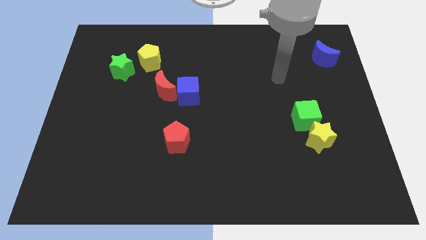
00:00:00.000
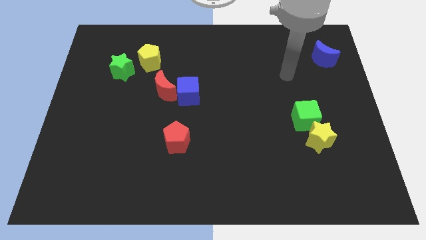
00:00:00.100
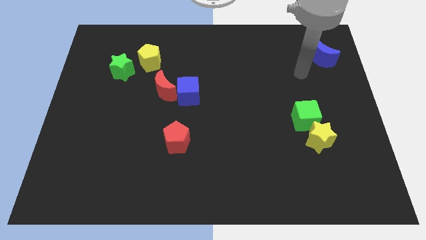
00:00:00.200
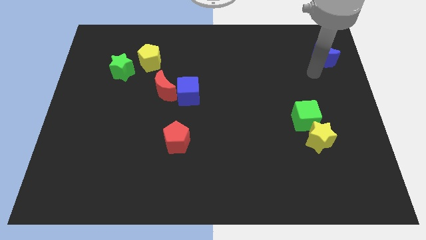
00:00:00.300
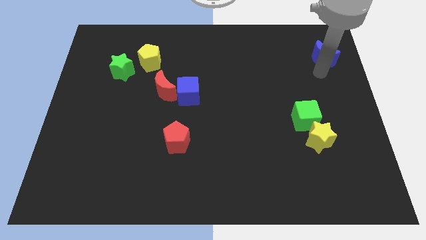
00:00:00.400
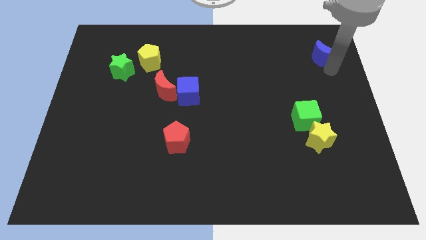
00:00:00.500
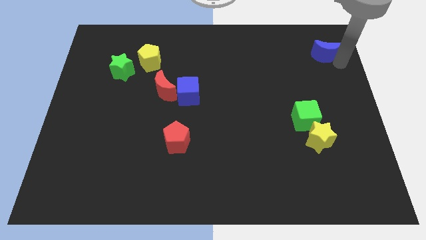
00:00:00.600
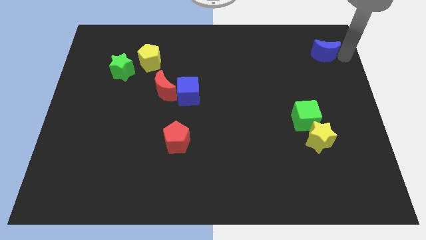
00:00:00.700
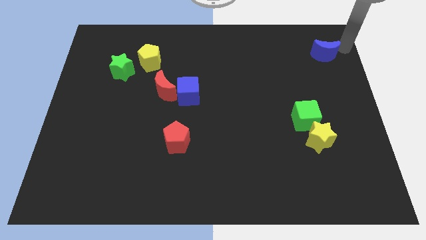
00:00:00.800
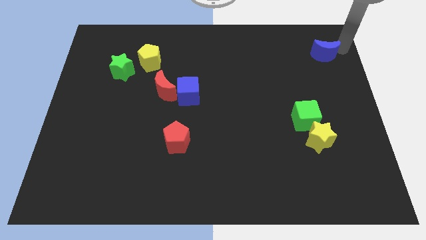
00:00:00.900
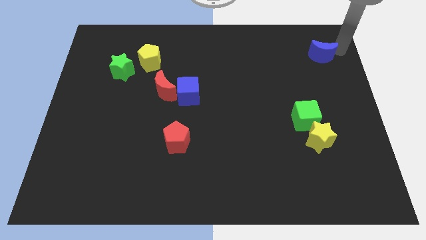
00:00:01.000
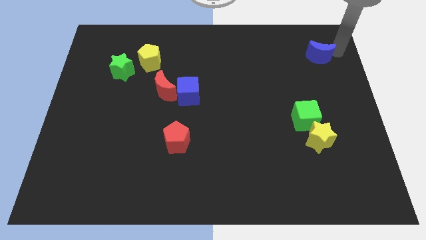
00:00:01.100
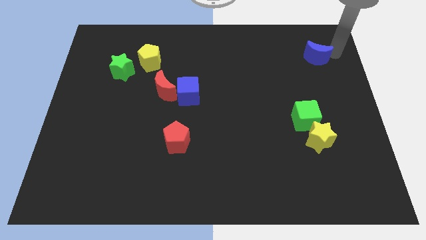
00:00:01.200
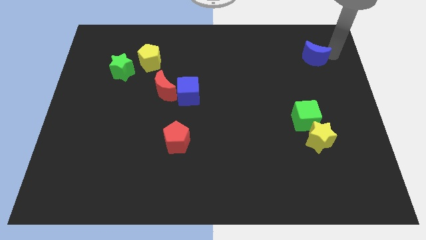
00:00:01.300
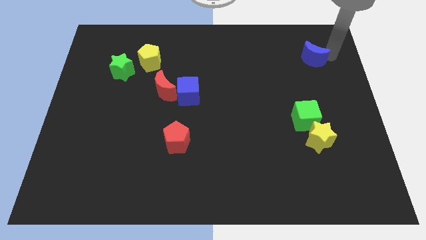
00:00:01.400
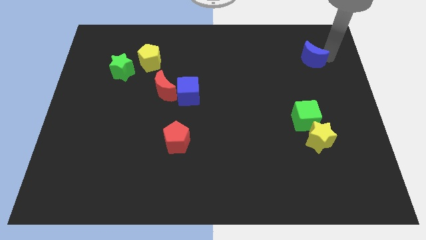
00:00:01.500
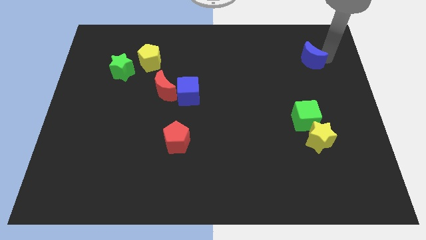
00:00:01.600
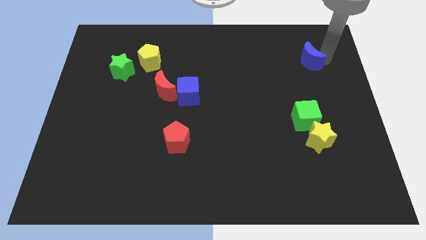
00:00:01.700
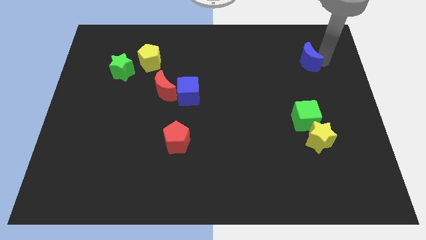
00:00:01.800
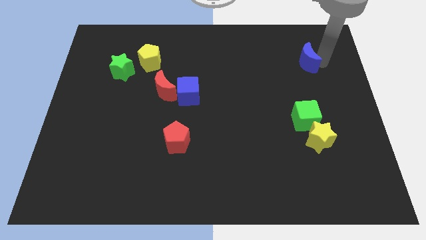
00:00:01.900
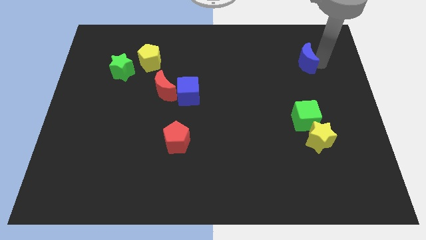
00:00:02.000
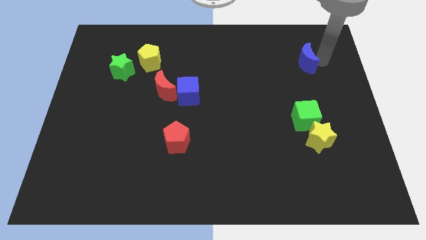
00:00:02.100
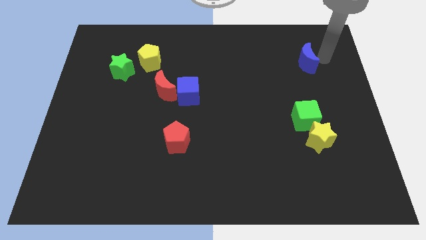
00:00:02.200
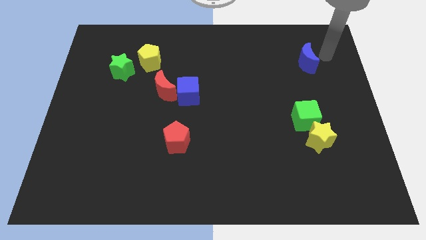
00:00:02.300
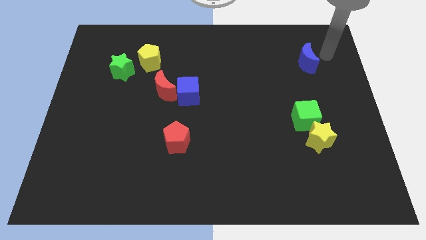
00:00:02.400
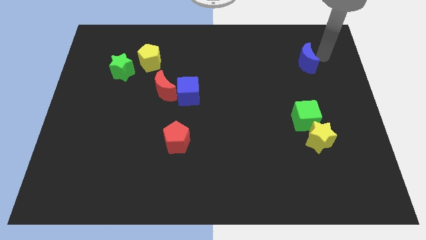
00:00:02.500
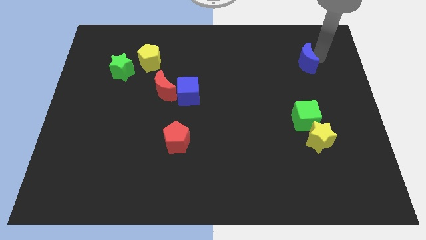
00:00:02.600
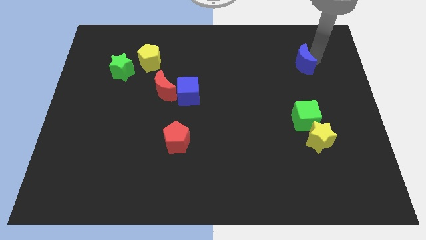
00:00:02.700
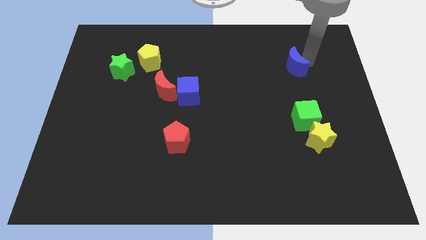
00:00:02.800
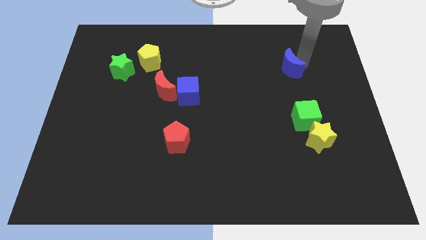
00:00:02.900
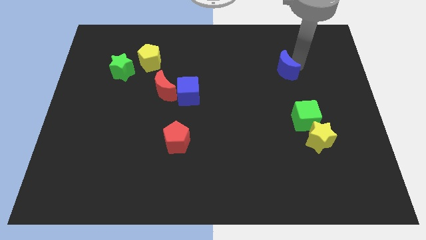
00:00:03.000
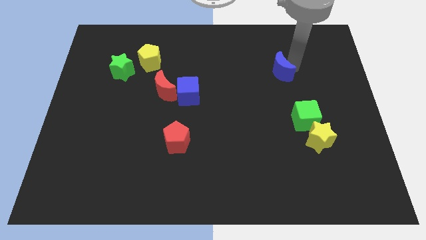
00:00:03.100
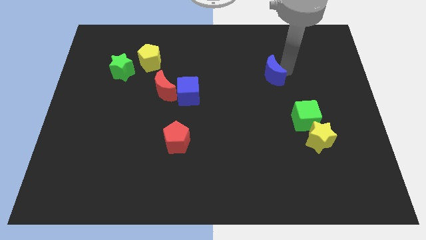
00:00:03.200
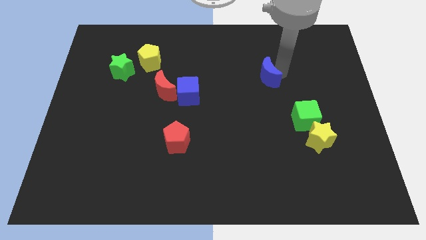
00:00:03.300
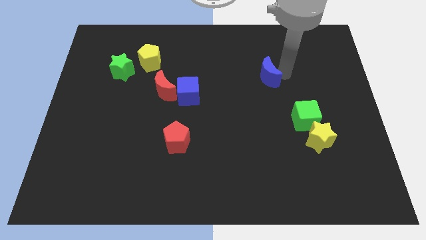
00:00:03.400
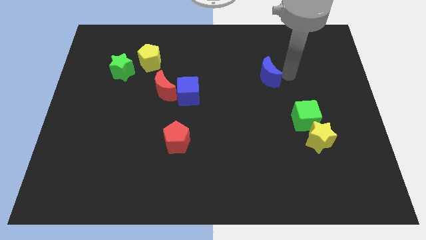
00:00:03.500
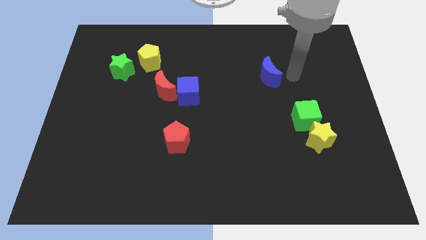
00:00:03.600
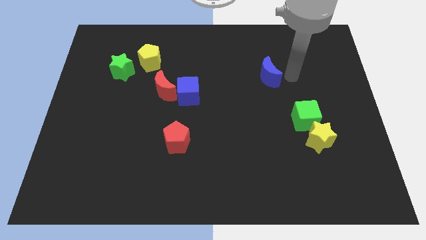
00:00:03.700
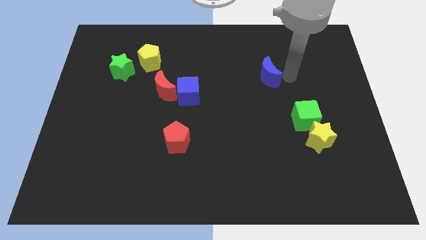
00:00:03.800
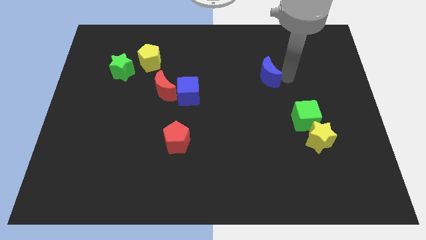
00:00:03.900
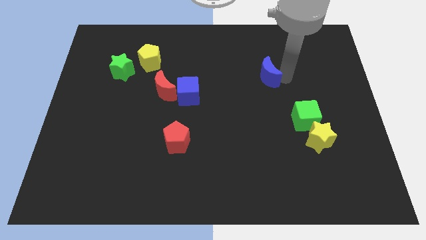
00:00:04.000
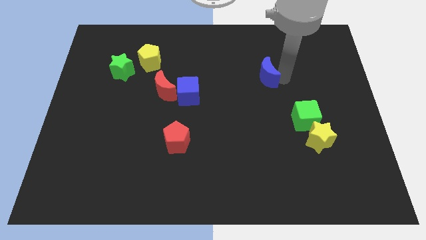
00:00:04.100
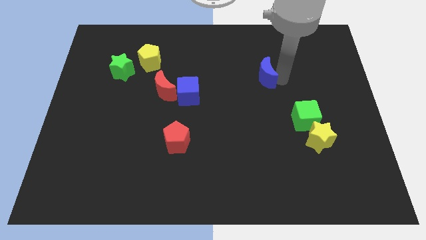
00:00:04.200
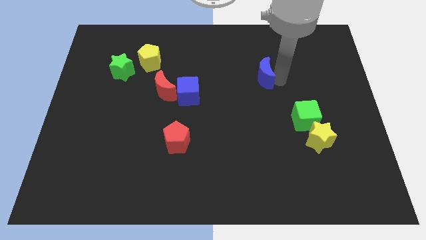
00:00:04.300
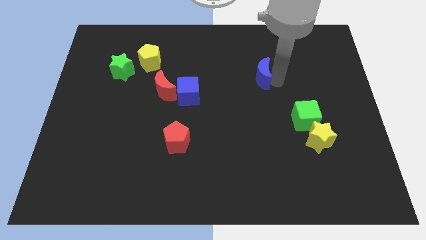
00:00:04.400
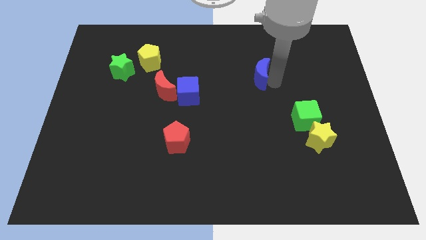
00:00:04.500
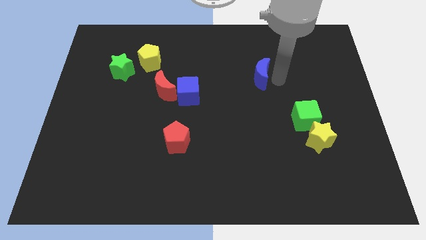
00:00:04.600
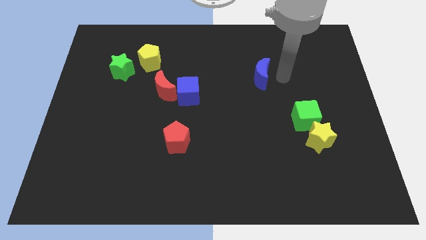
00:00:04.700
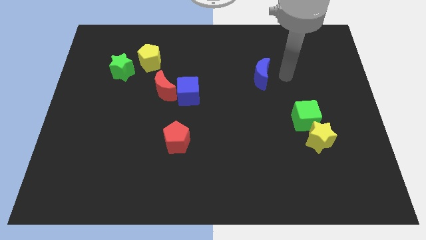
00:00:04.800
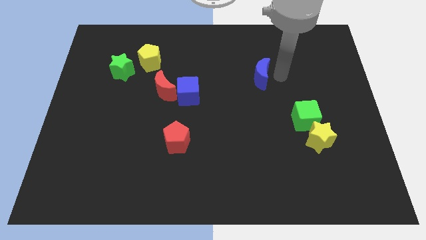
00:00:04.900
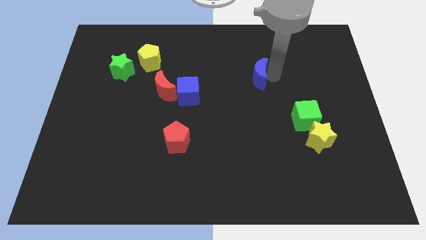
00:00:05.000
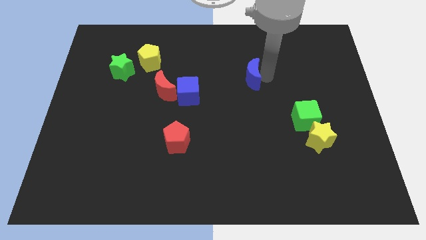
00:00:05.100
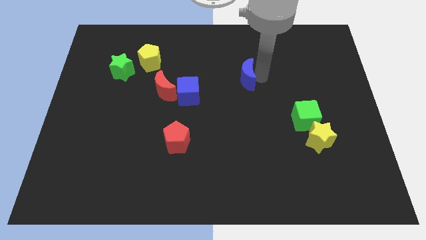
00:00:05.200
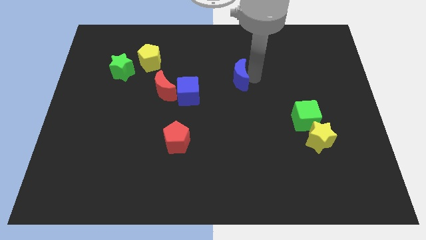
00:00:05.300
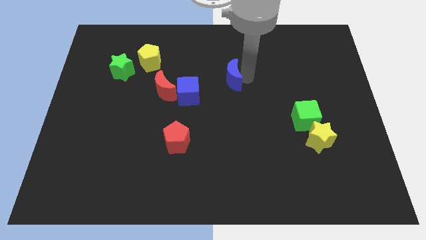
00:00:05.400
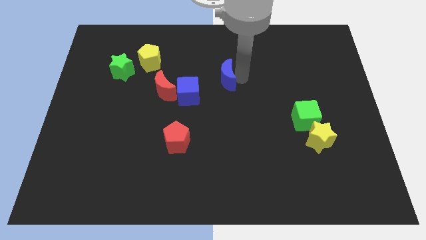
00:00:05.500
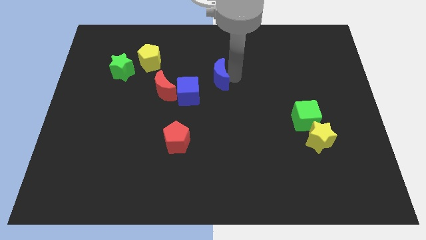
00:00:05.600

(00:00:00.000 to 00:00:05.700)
put the blue moon to the right of the red moon

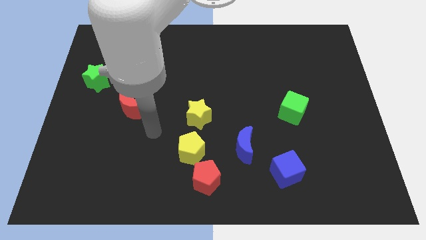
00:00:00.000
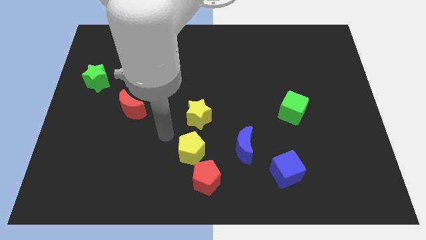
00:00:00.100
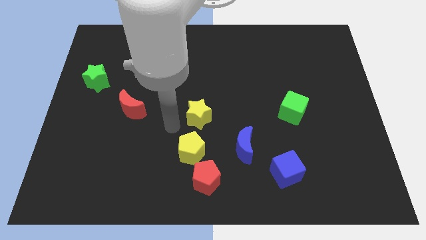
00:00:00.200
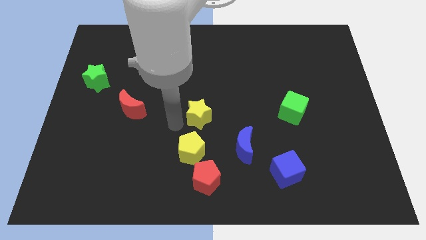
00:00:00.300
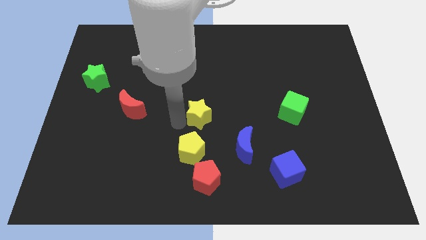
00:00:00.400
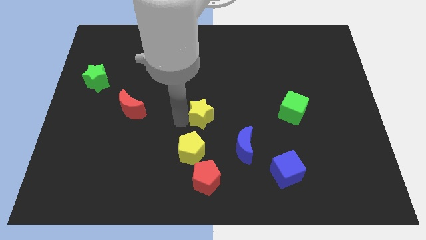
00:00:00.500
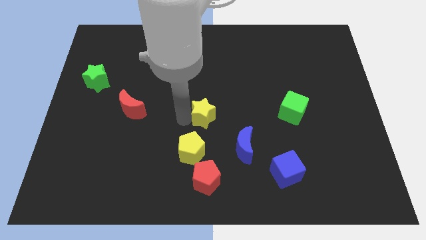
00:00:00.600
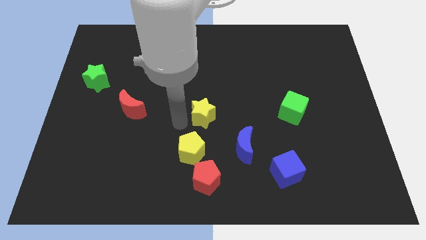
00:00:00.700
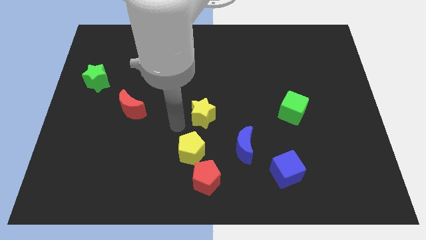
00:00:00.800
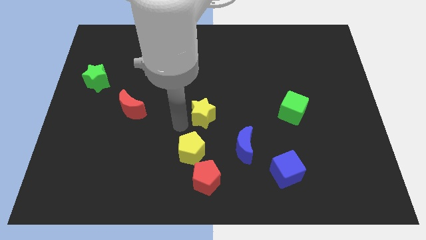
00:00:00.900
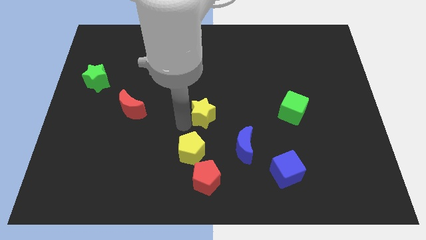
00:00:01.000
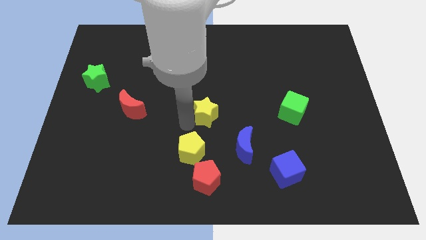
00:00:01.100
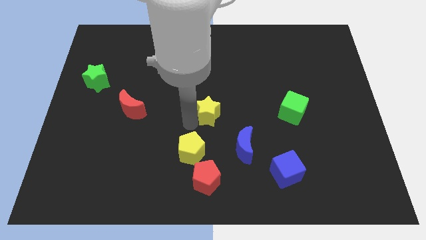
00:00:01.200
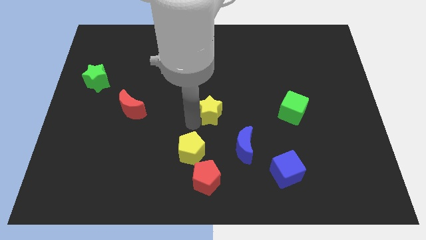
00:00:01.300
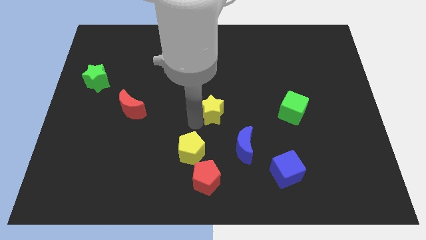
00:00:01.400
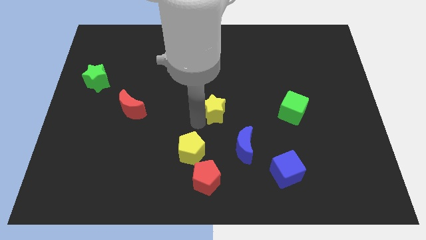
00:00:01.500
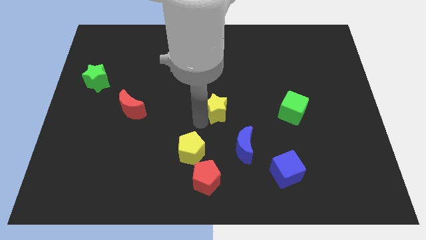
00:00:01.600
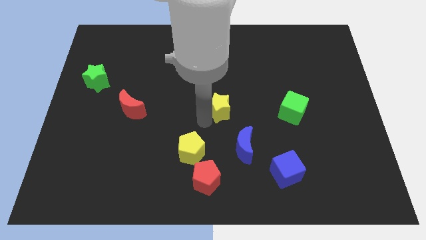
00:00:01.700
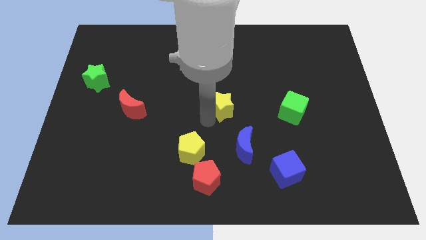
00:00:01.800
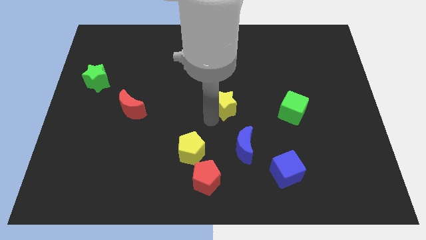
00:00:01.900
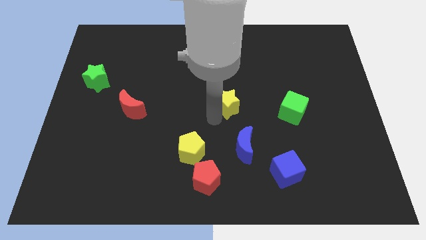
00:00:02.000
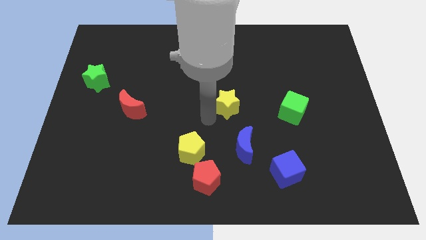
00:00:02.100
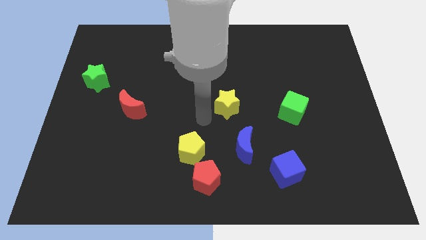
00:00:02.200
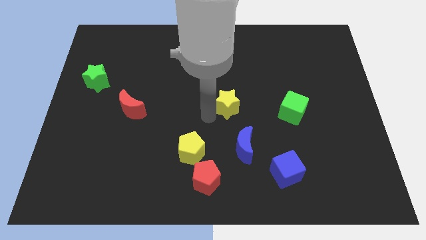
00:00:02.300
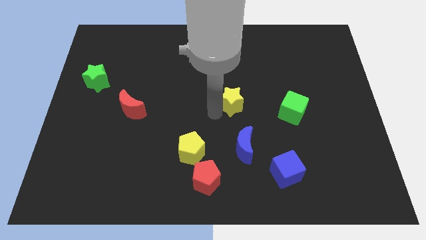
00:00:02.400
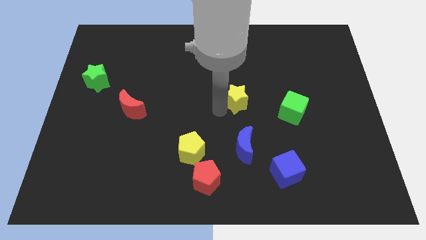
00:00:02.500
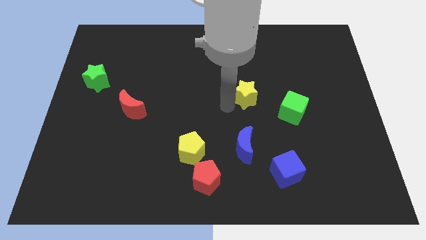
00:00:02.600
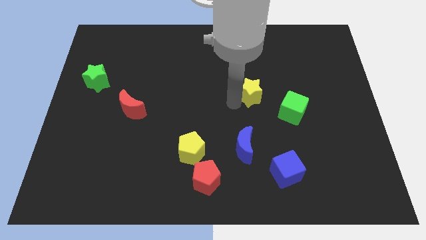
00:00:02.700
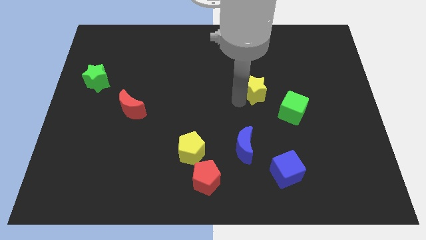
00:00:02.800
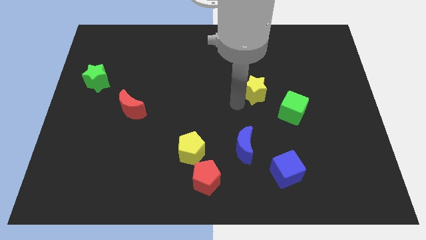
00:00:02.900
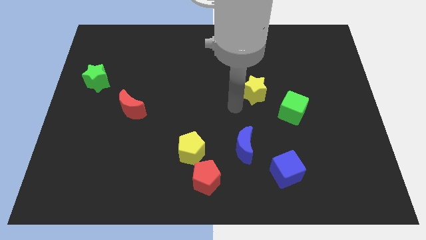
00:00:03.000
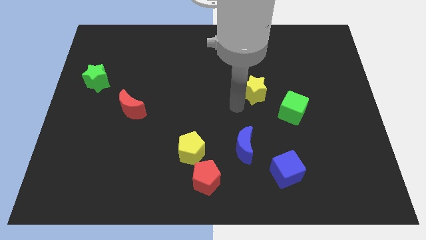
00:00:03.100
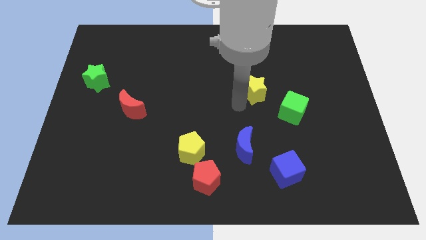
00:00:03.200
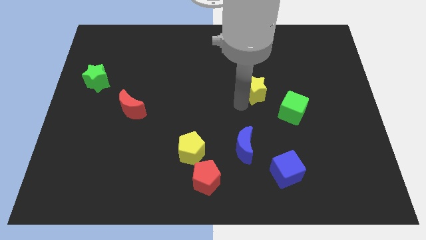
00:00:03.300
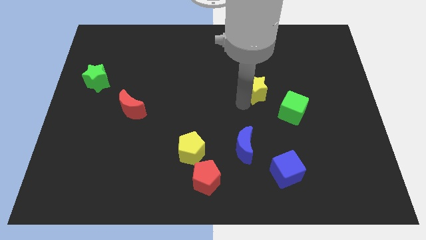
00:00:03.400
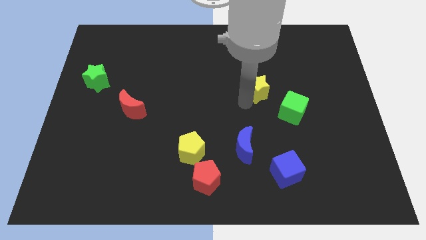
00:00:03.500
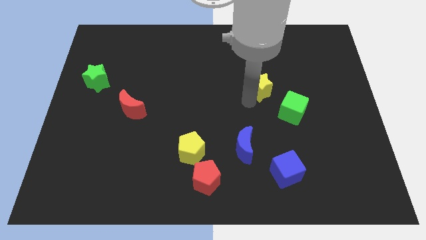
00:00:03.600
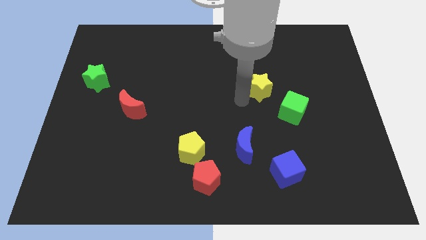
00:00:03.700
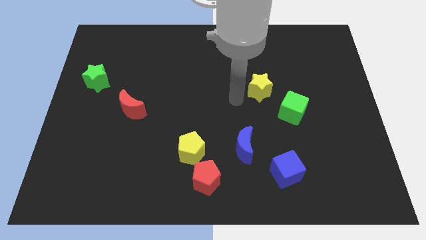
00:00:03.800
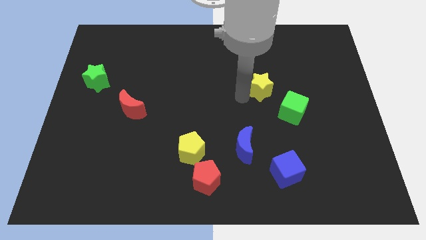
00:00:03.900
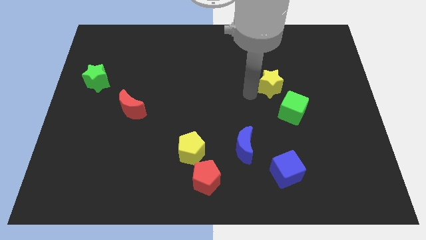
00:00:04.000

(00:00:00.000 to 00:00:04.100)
push the yellow star to the top side of the green cube
